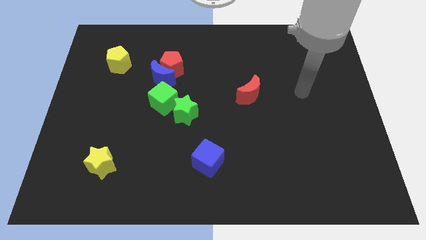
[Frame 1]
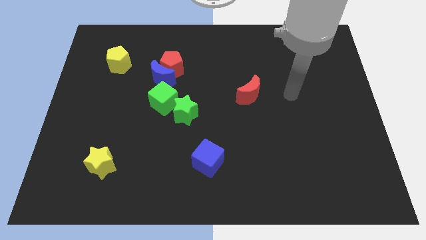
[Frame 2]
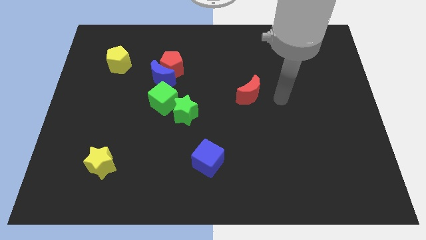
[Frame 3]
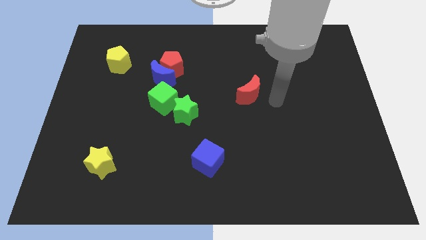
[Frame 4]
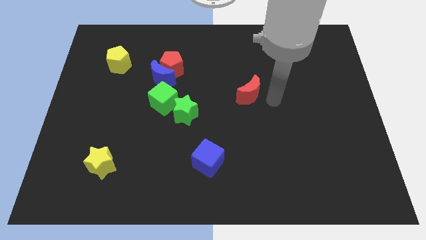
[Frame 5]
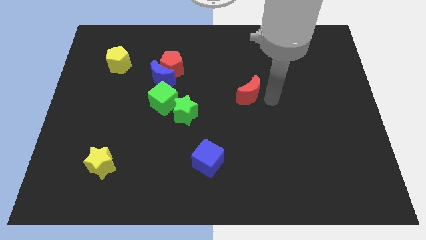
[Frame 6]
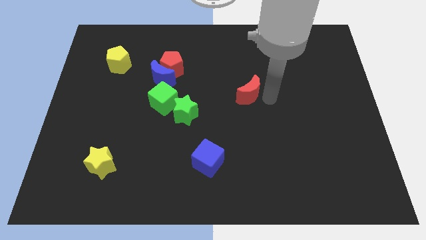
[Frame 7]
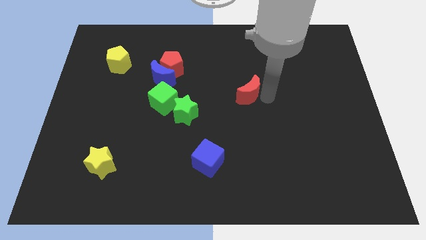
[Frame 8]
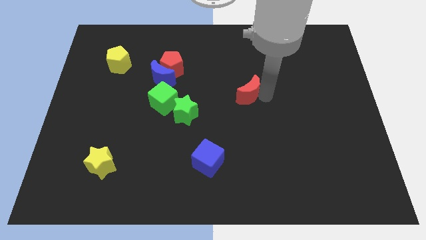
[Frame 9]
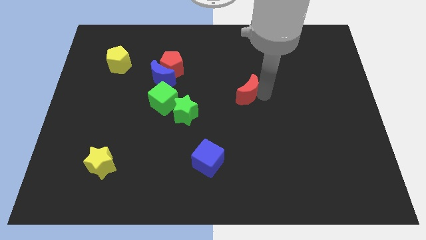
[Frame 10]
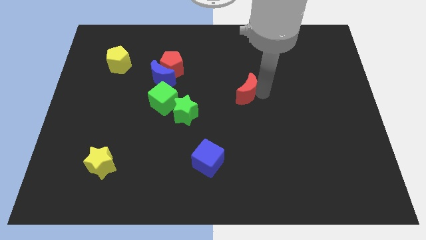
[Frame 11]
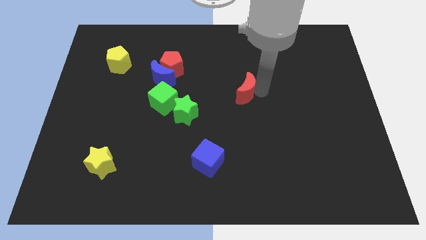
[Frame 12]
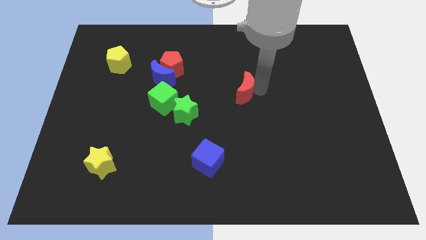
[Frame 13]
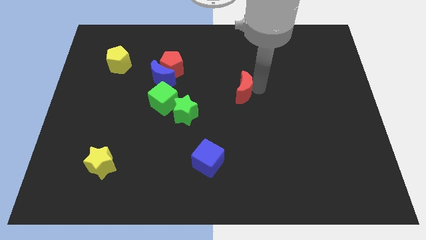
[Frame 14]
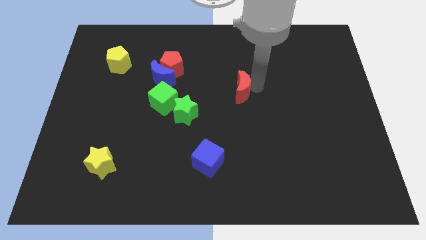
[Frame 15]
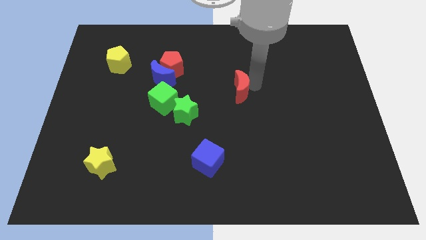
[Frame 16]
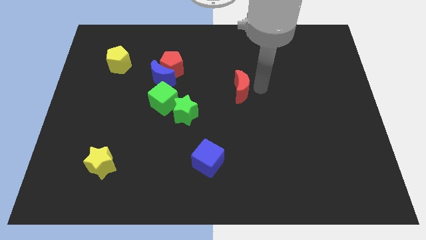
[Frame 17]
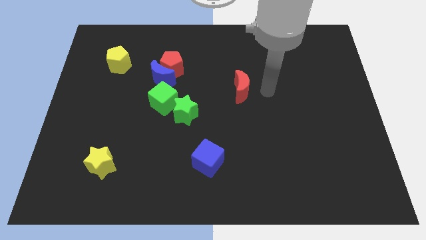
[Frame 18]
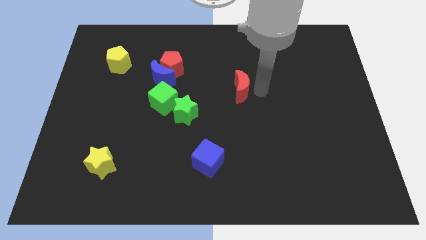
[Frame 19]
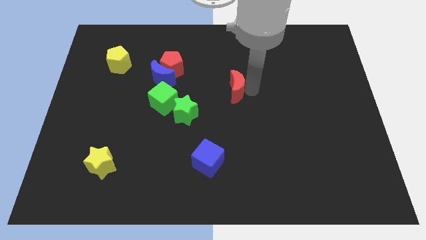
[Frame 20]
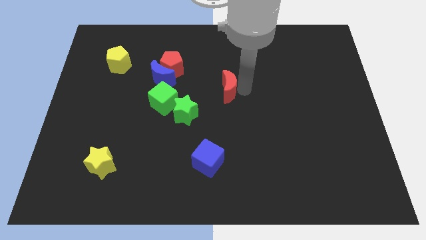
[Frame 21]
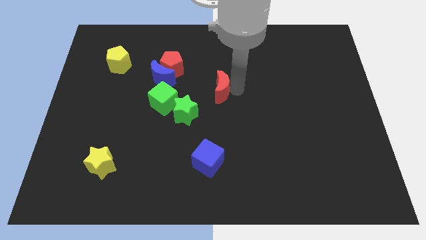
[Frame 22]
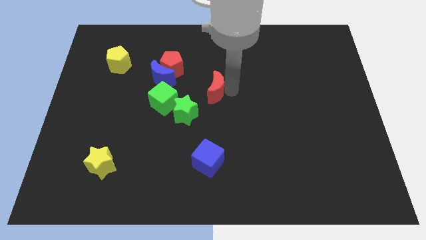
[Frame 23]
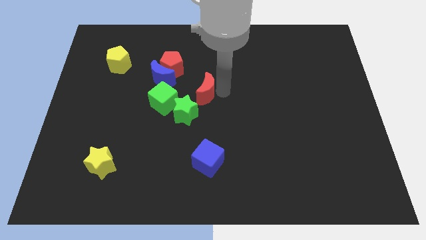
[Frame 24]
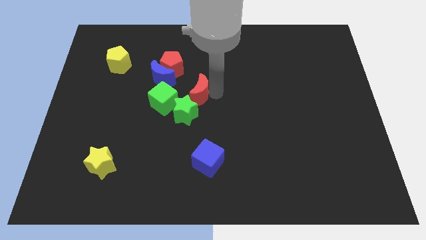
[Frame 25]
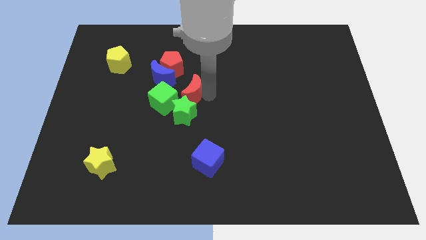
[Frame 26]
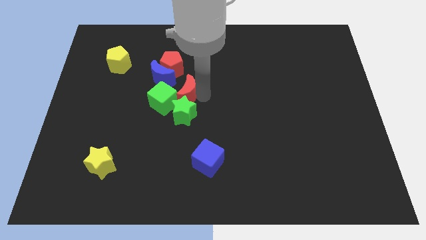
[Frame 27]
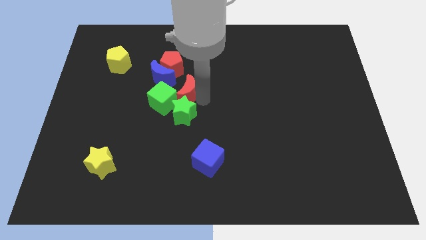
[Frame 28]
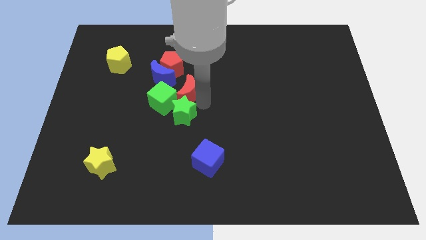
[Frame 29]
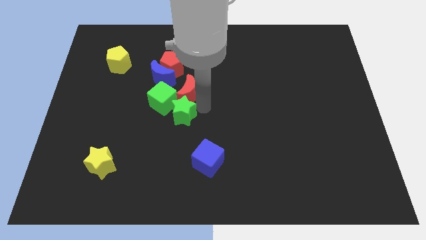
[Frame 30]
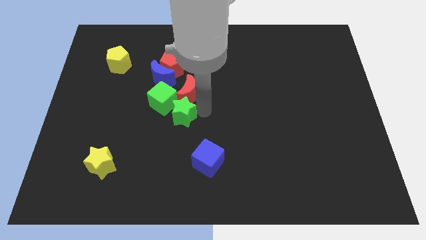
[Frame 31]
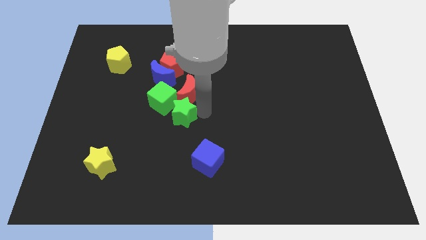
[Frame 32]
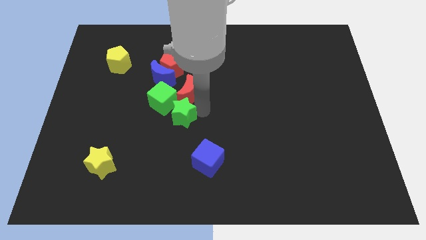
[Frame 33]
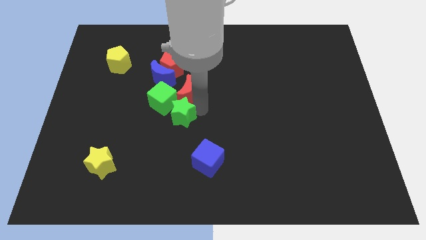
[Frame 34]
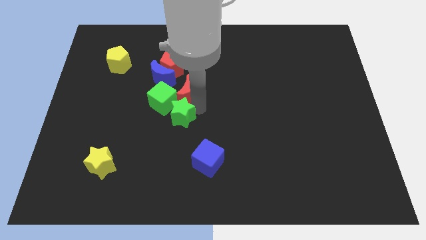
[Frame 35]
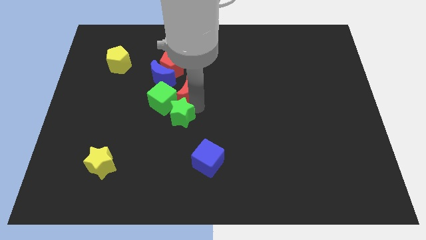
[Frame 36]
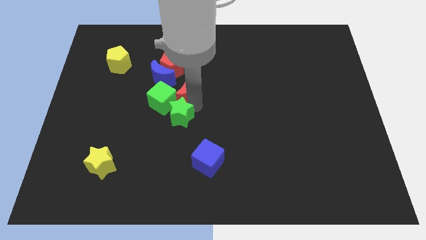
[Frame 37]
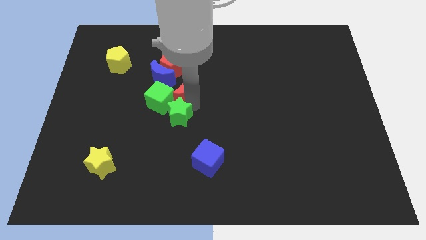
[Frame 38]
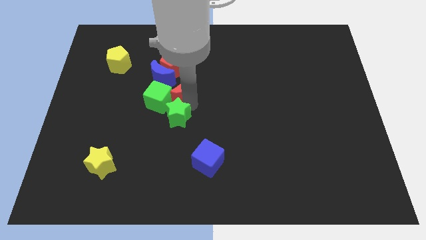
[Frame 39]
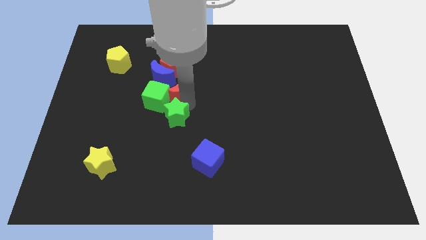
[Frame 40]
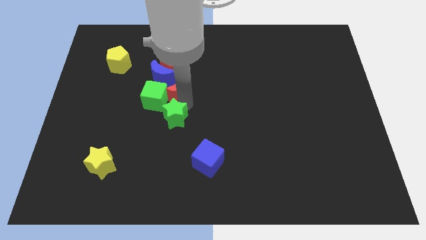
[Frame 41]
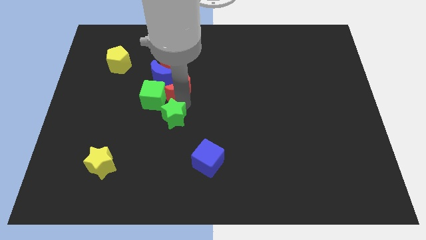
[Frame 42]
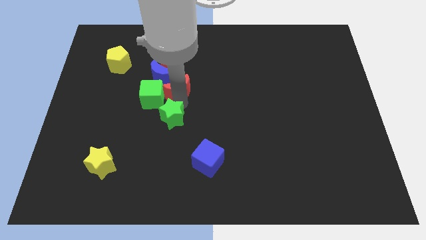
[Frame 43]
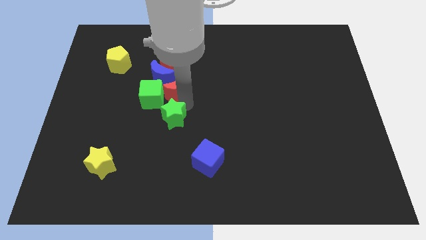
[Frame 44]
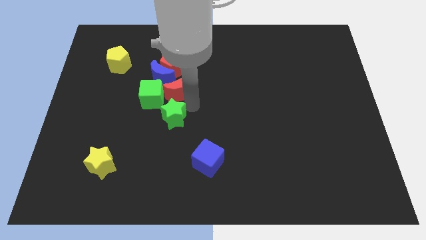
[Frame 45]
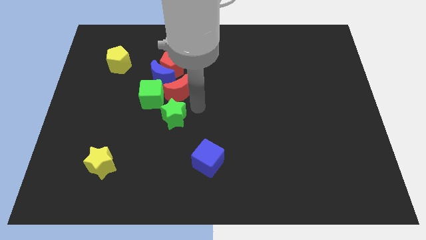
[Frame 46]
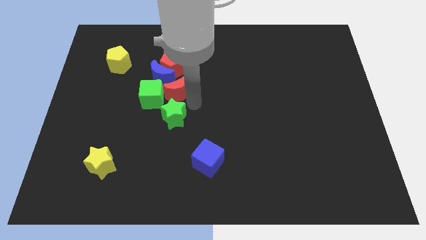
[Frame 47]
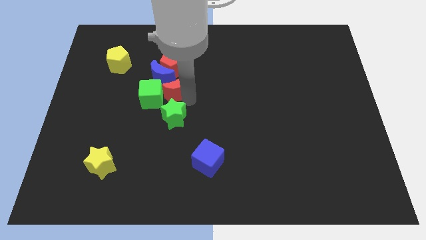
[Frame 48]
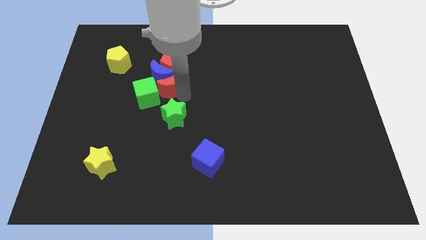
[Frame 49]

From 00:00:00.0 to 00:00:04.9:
push the red moon close to the blue moon

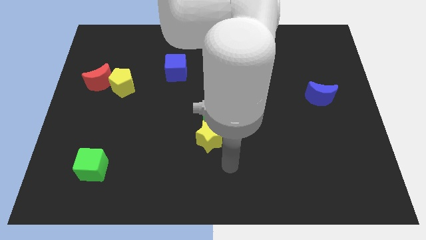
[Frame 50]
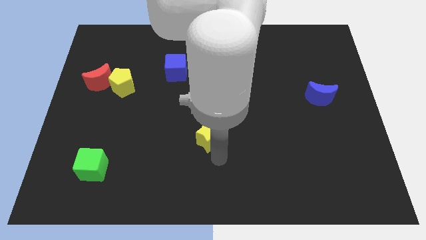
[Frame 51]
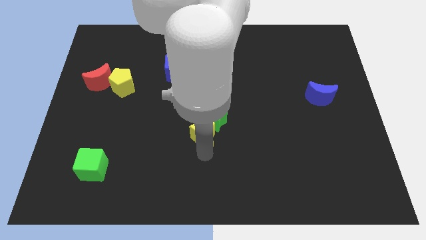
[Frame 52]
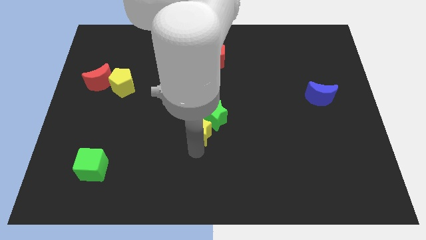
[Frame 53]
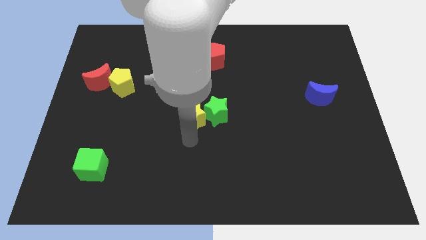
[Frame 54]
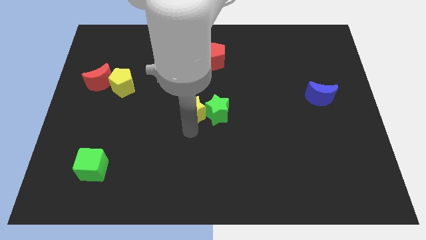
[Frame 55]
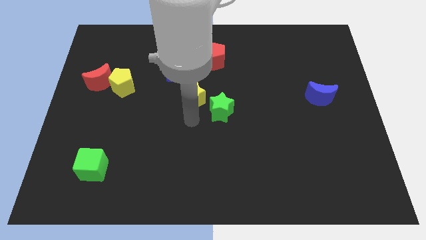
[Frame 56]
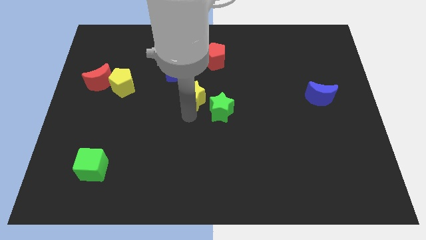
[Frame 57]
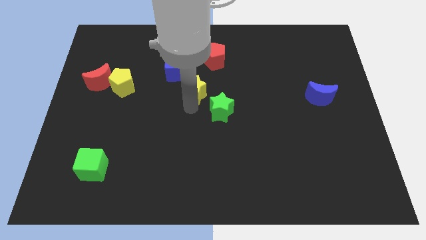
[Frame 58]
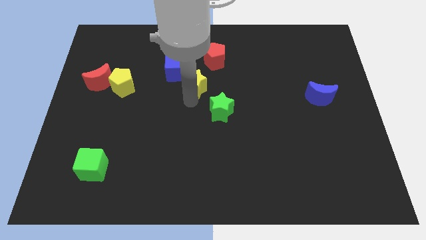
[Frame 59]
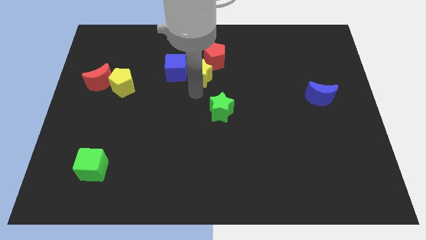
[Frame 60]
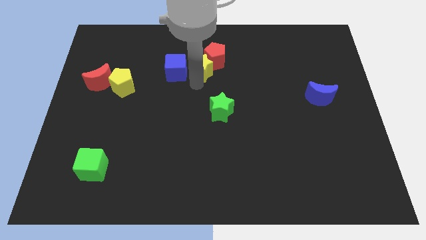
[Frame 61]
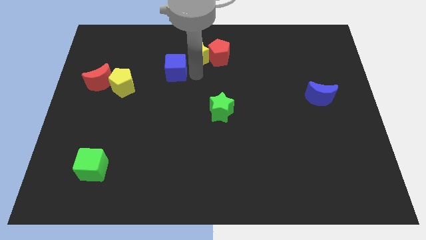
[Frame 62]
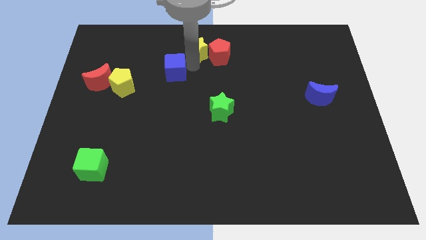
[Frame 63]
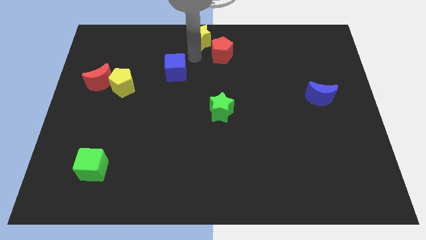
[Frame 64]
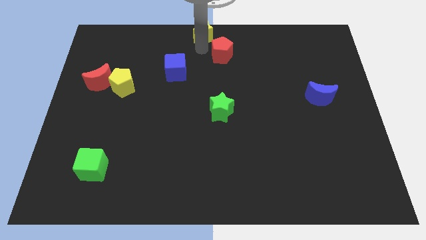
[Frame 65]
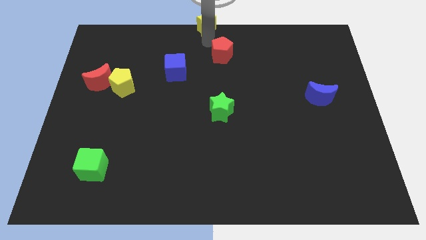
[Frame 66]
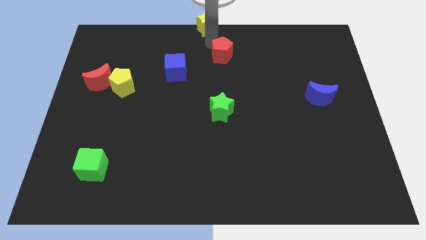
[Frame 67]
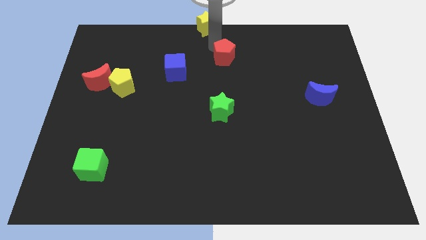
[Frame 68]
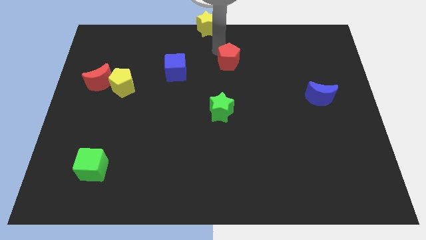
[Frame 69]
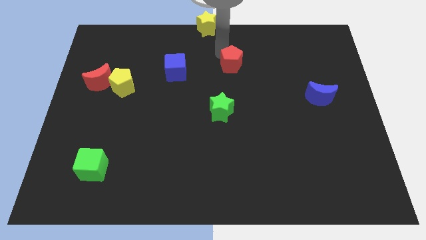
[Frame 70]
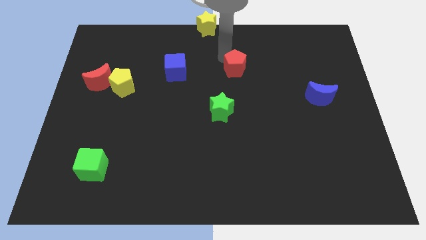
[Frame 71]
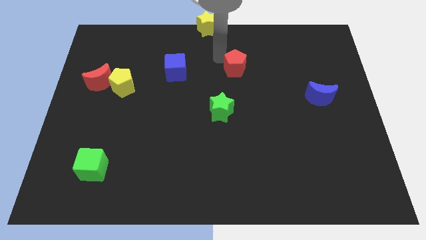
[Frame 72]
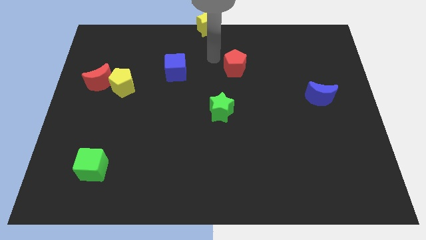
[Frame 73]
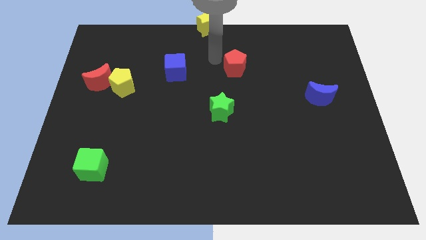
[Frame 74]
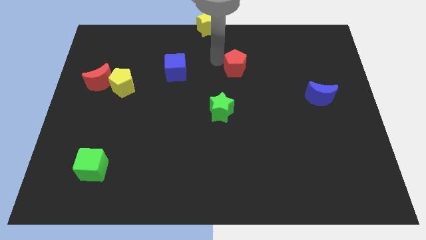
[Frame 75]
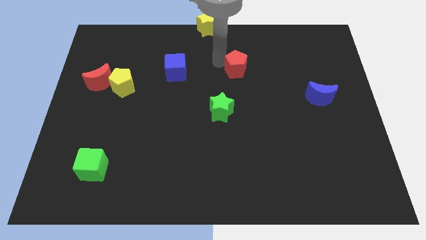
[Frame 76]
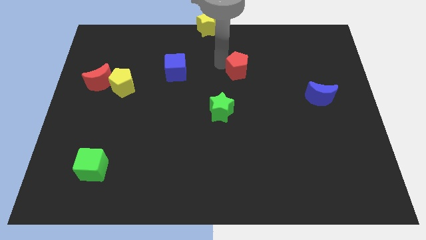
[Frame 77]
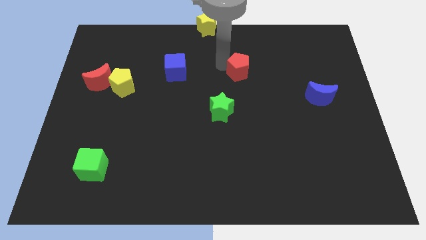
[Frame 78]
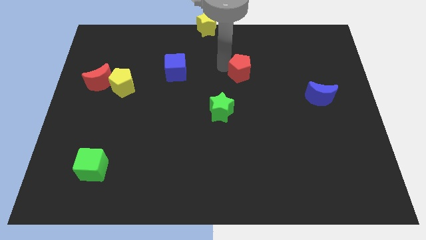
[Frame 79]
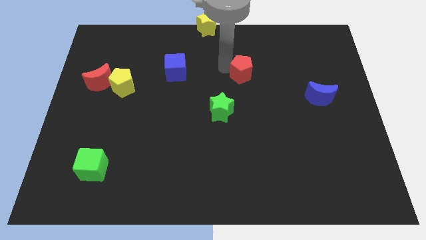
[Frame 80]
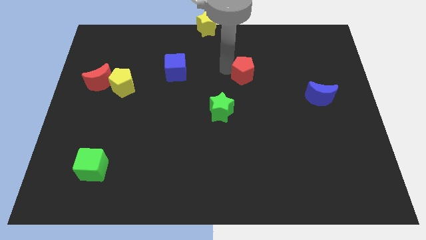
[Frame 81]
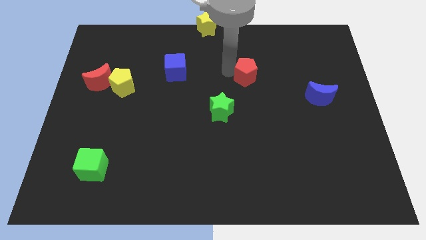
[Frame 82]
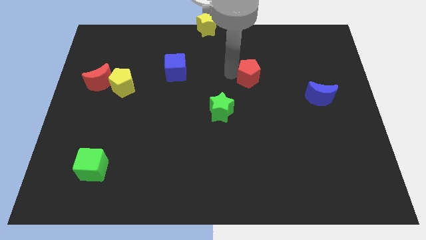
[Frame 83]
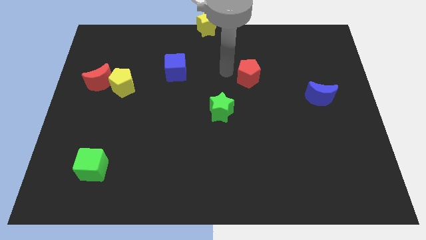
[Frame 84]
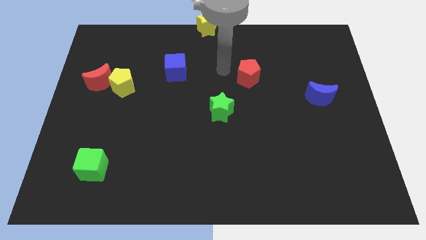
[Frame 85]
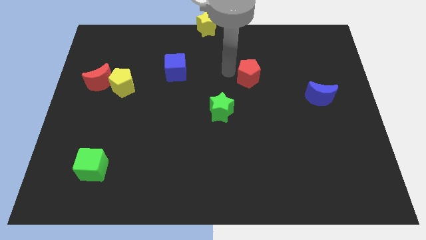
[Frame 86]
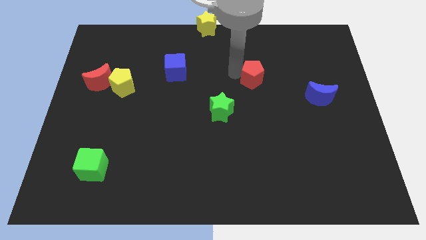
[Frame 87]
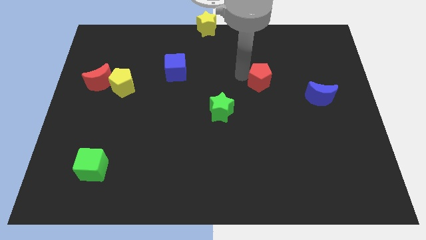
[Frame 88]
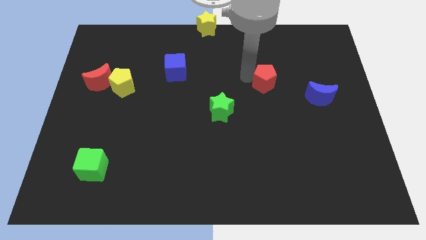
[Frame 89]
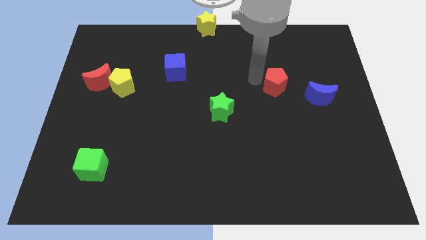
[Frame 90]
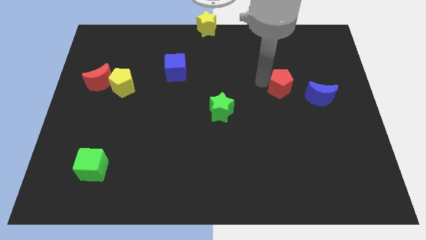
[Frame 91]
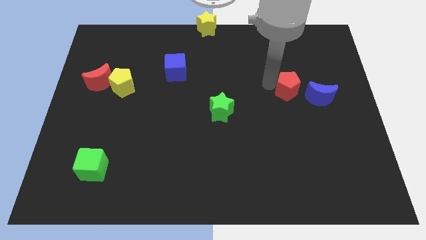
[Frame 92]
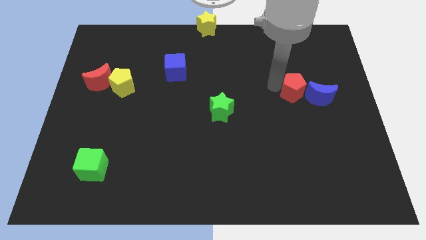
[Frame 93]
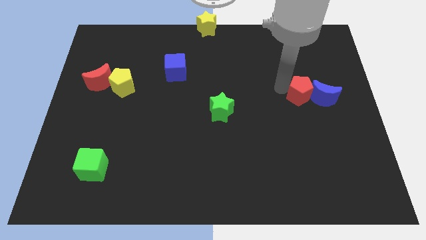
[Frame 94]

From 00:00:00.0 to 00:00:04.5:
slide the red pentagon towards the blue moon
